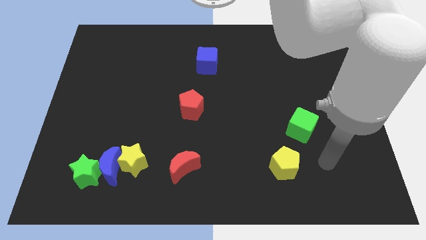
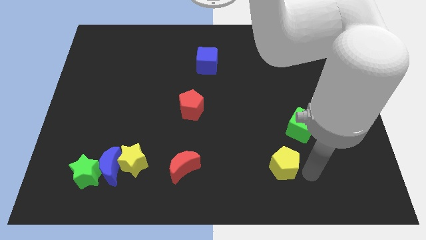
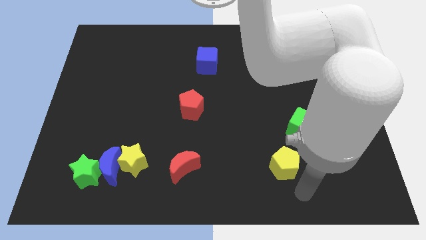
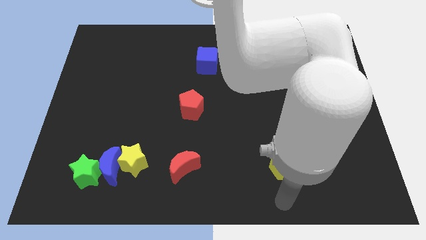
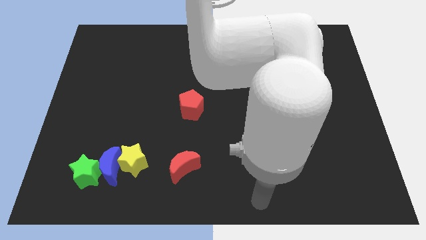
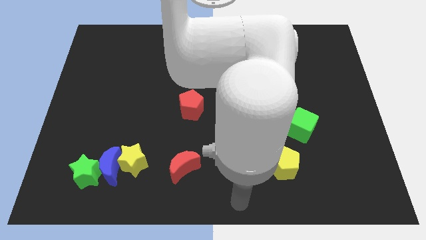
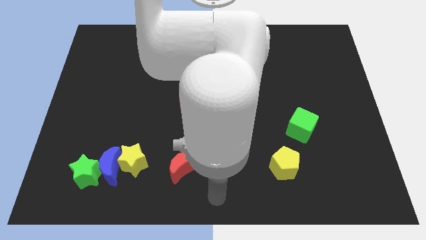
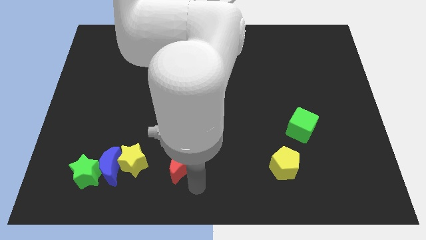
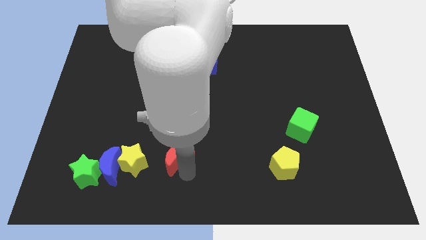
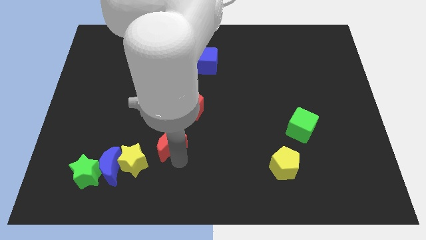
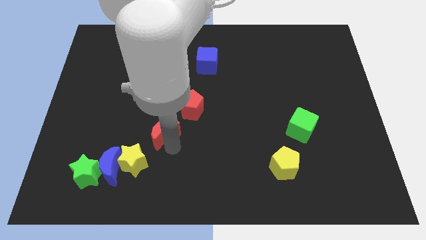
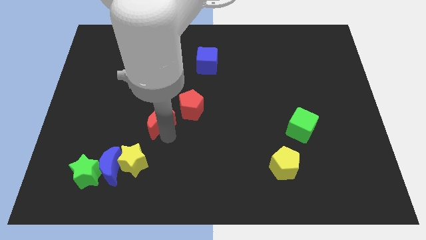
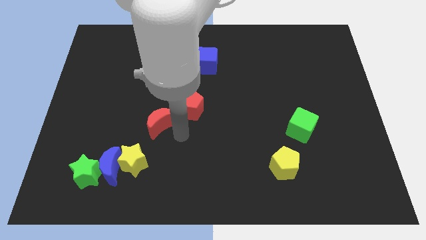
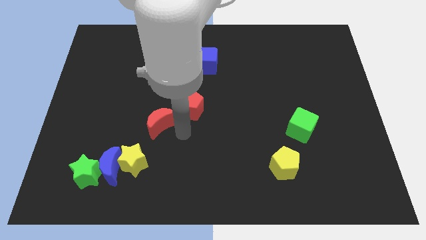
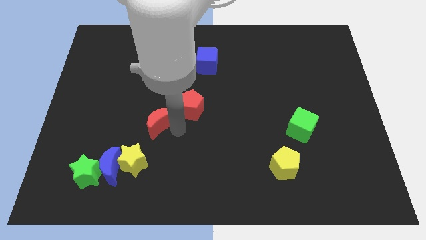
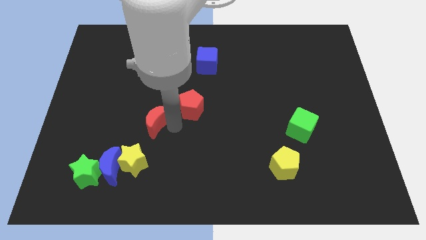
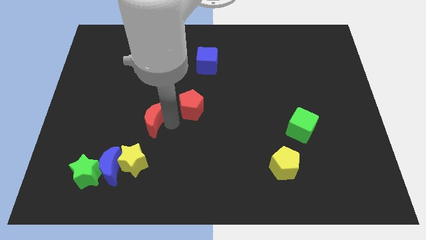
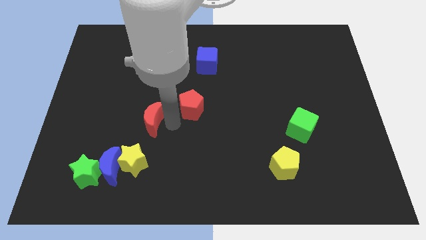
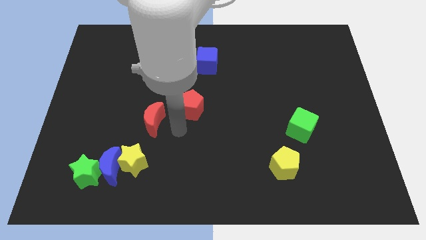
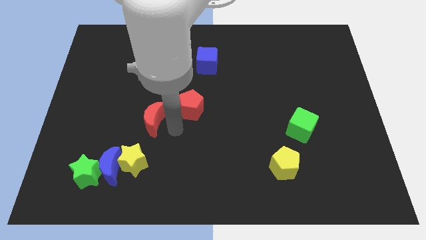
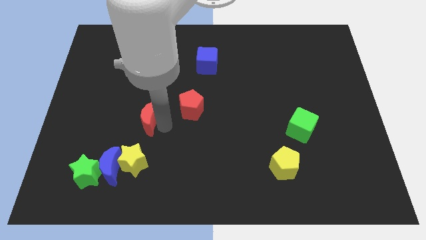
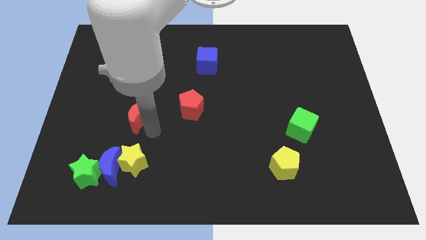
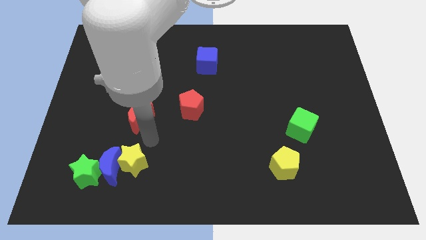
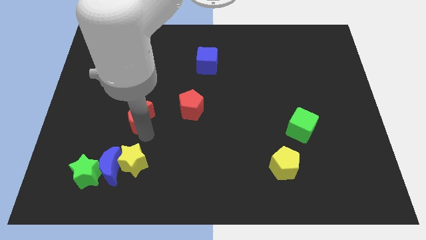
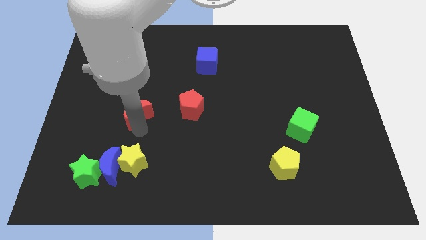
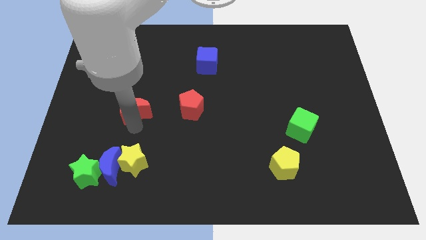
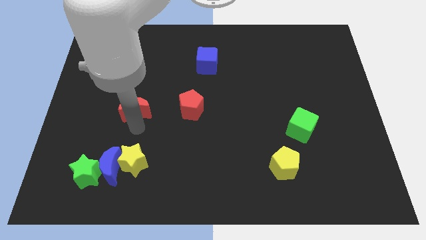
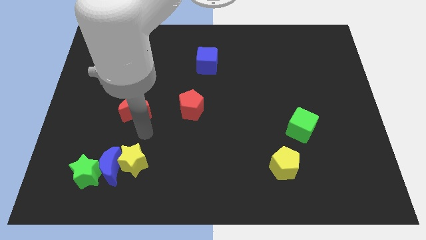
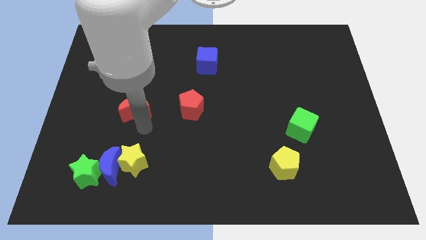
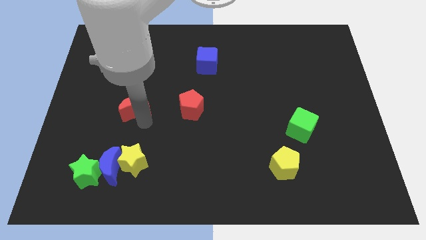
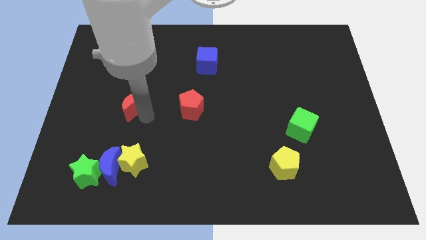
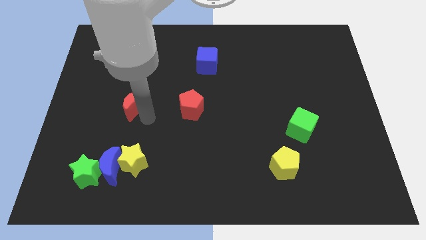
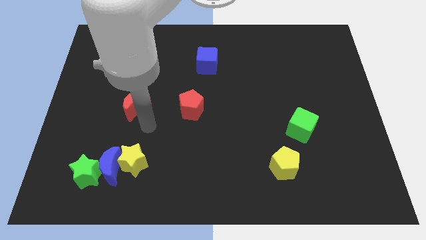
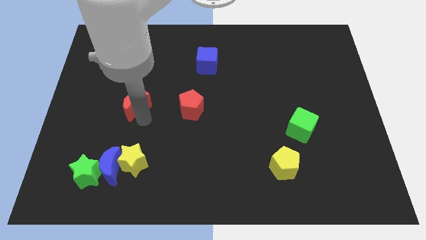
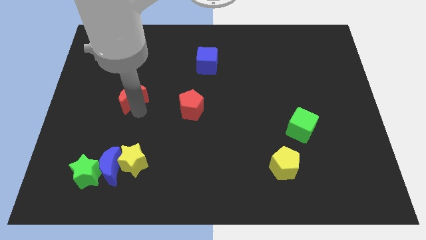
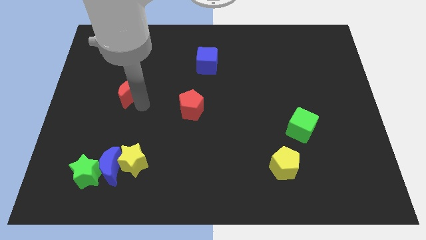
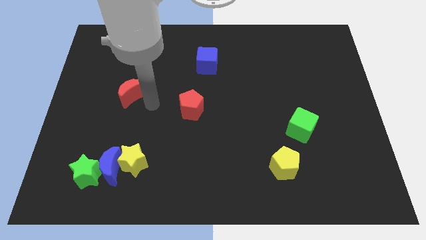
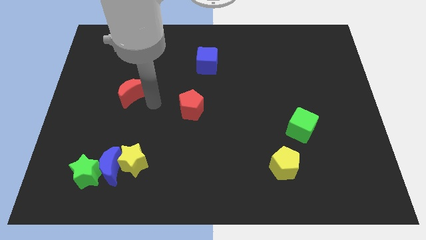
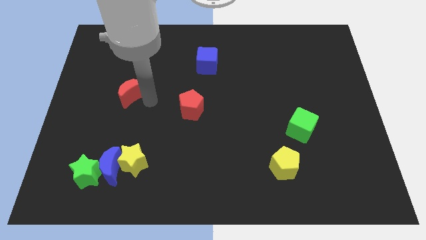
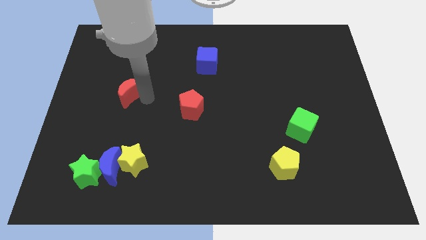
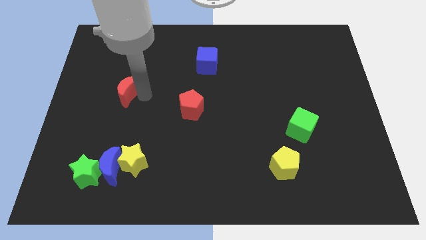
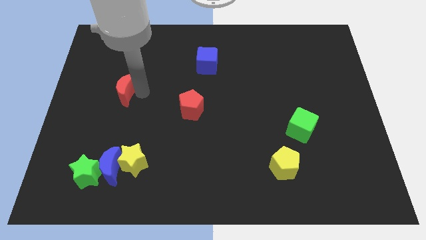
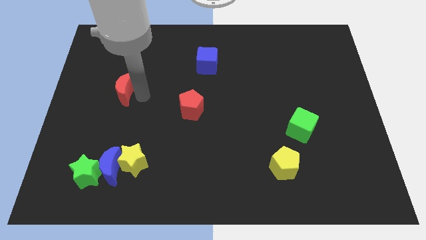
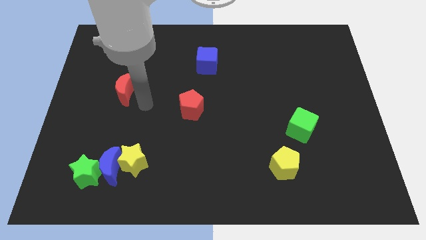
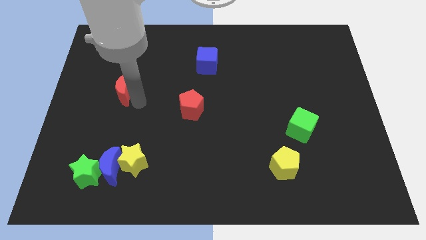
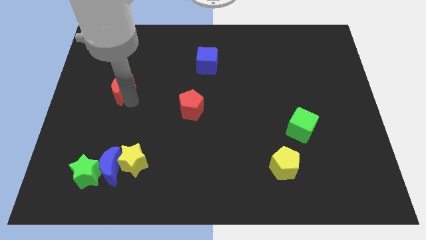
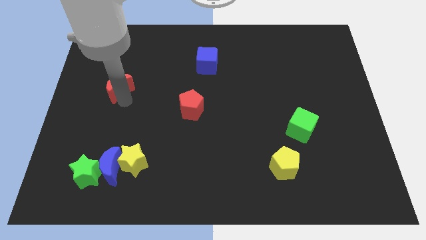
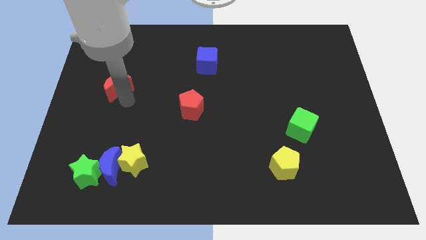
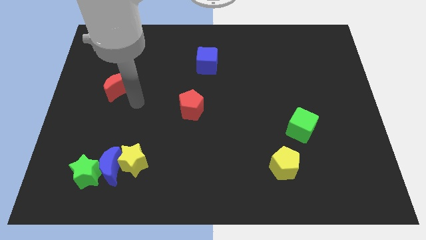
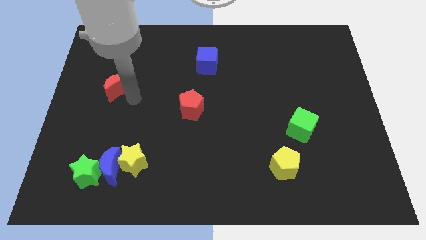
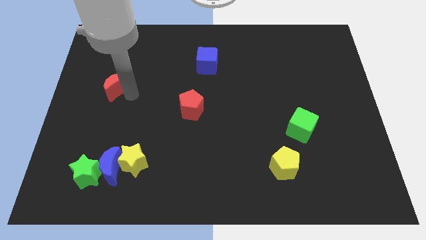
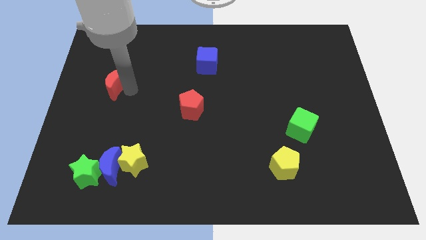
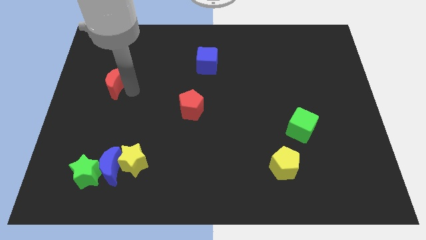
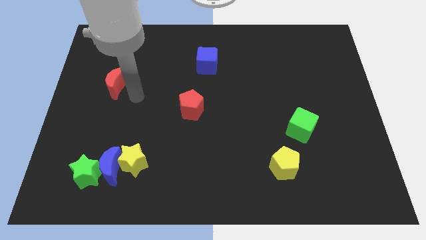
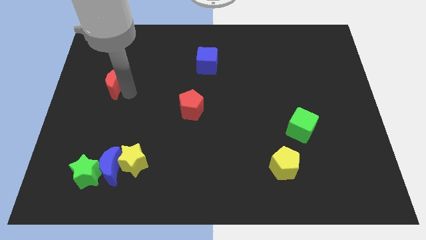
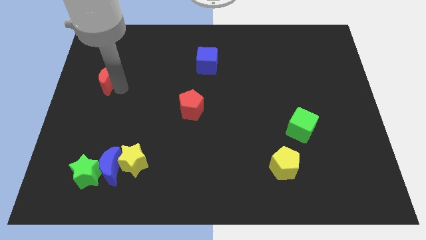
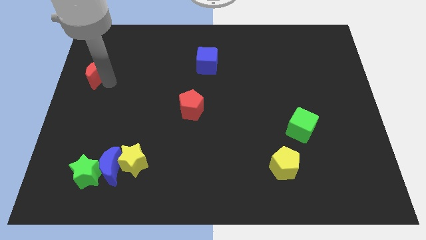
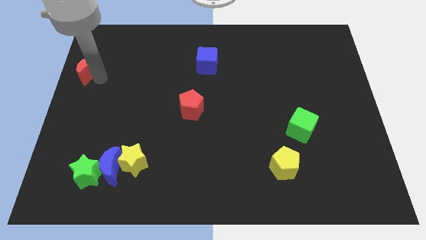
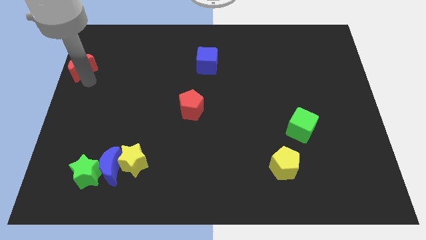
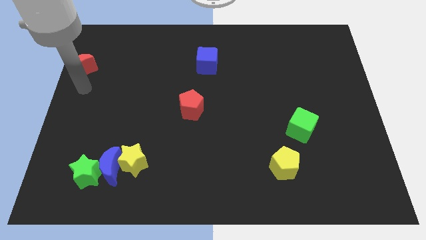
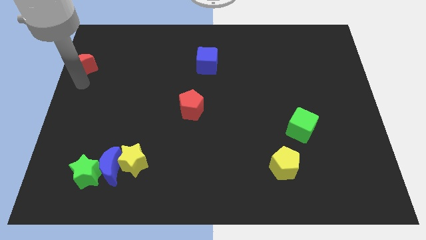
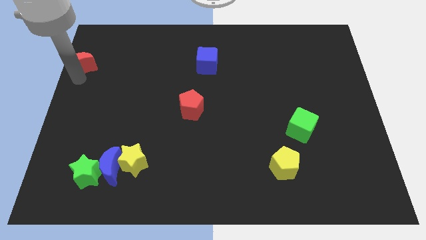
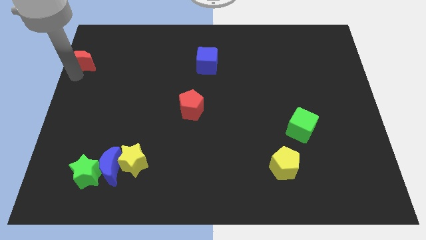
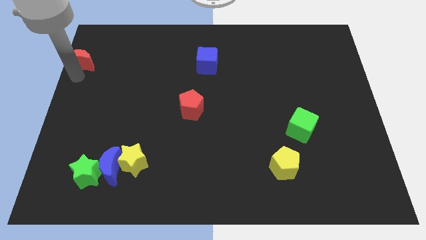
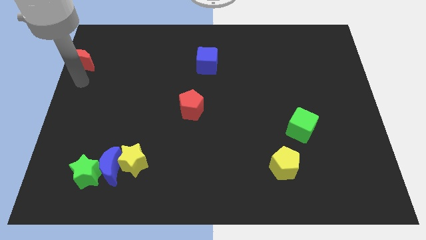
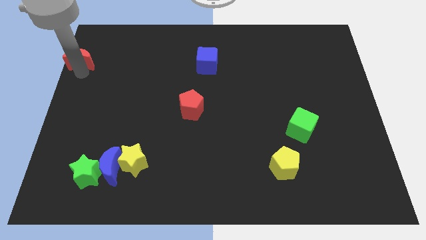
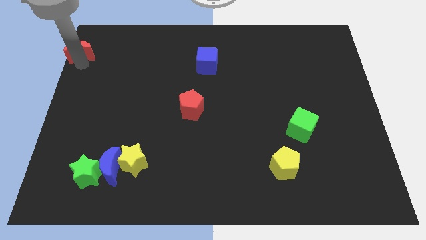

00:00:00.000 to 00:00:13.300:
push the red moon to the top left corner
